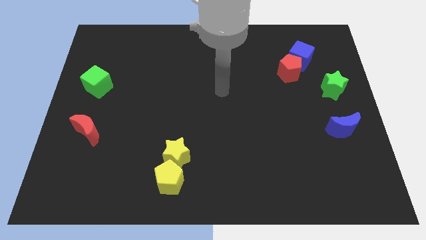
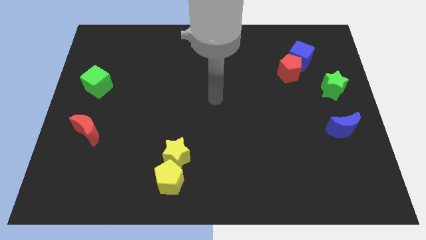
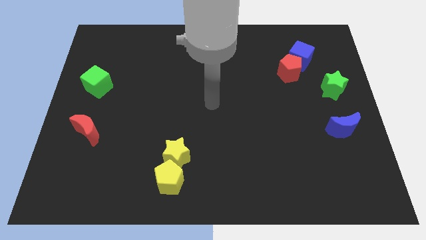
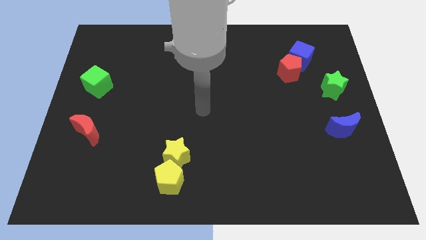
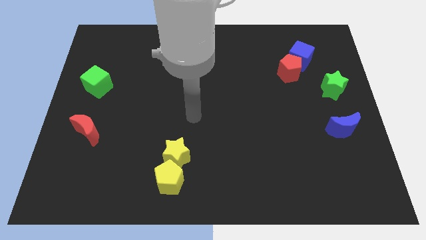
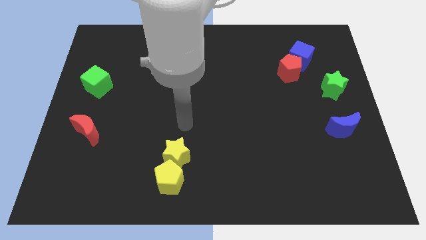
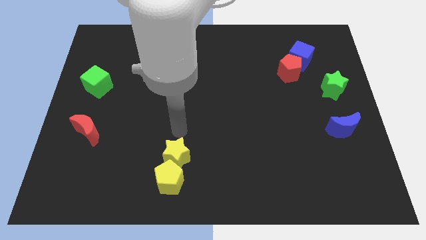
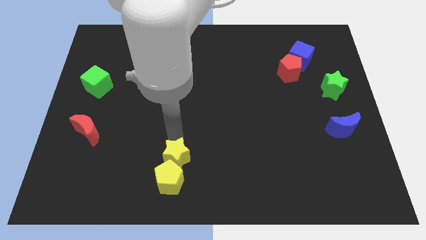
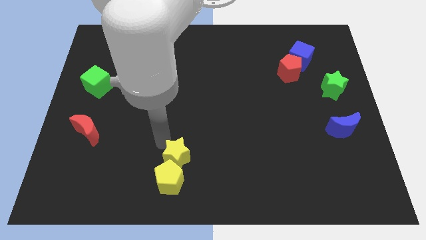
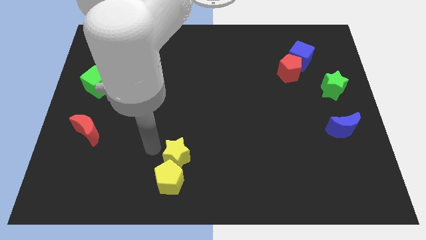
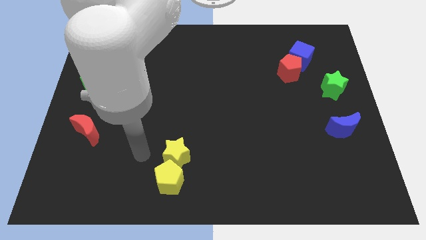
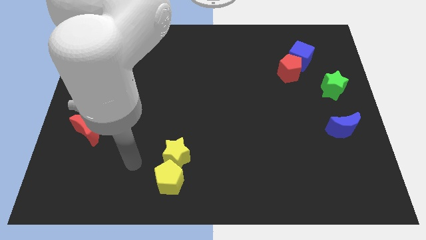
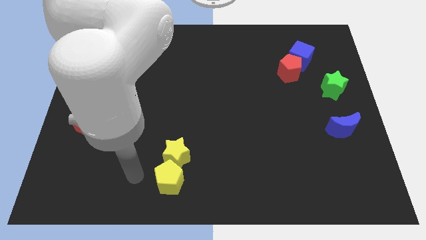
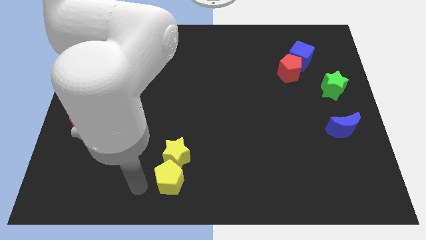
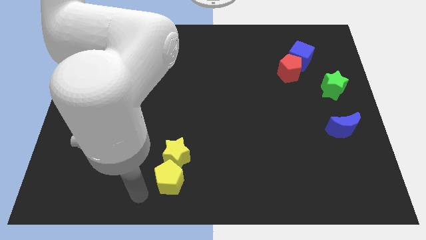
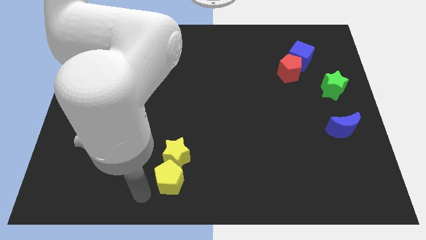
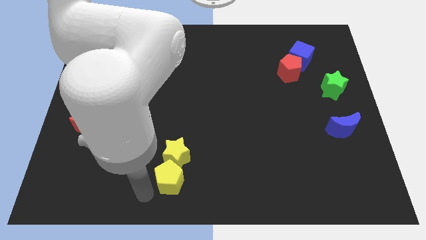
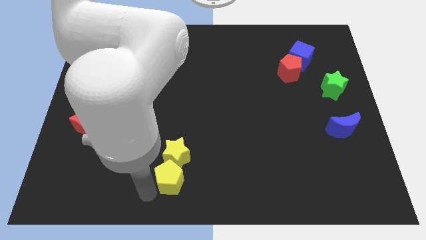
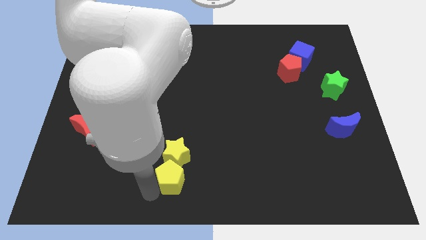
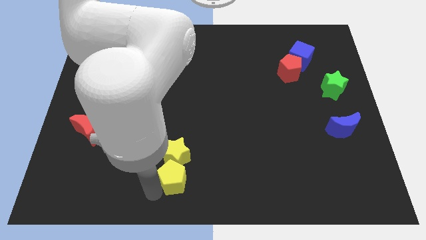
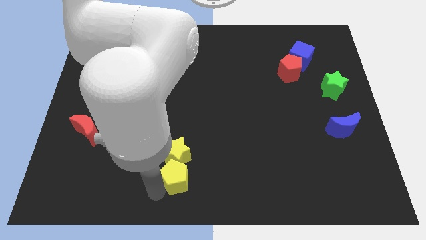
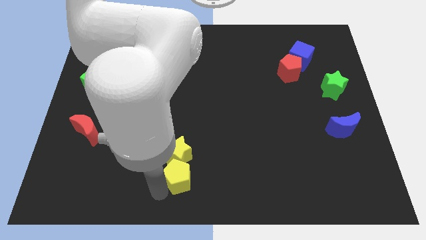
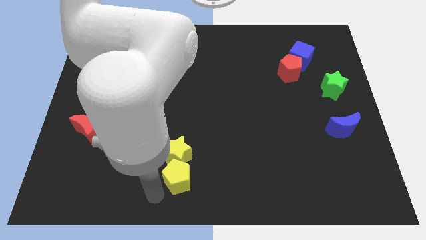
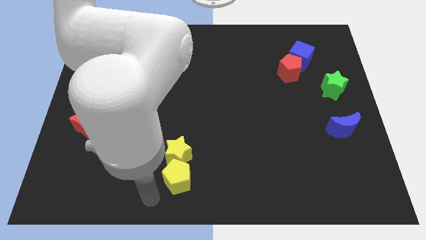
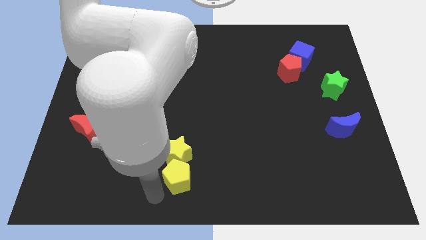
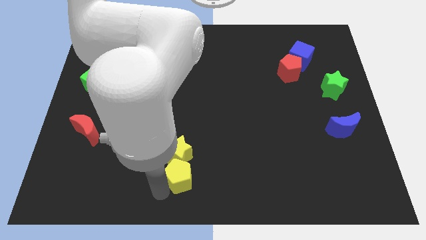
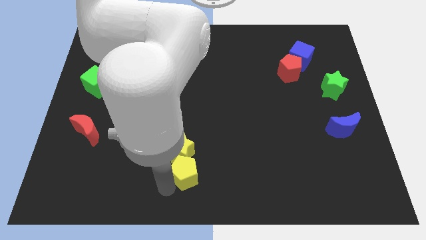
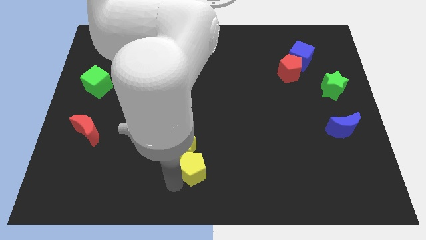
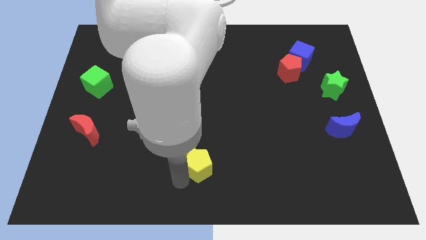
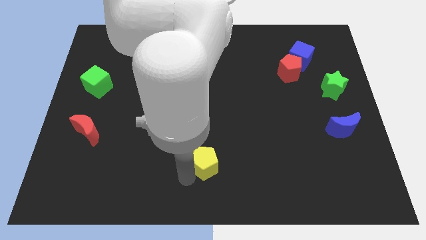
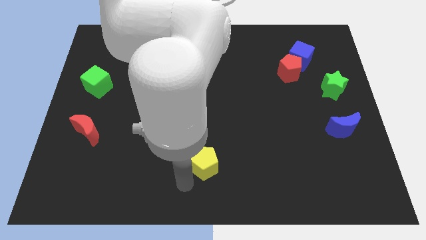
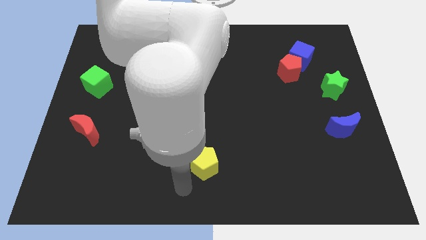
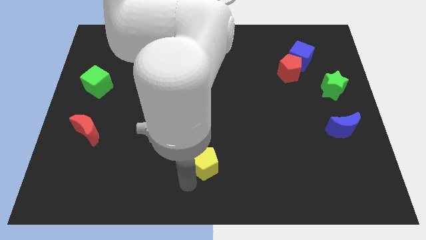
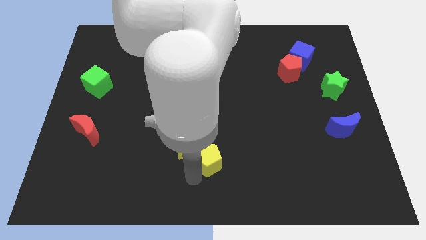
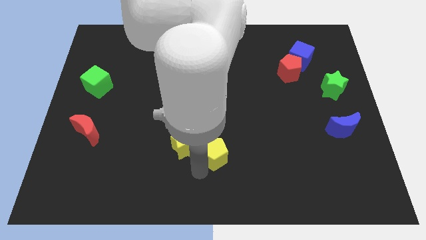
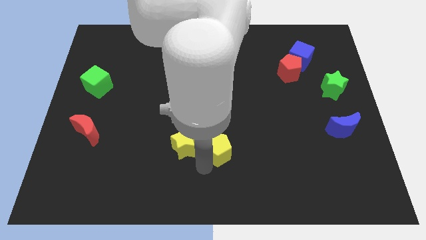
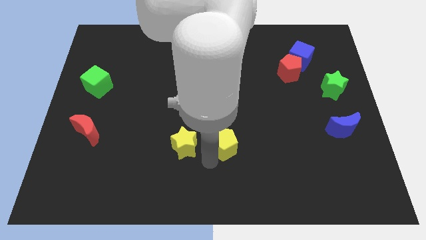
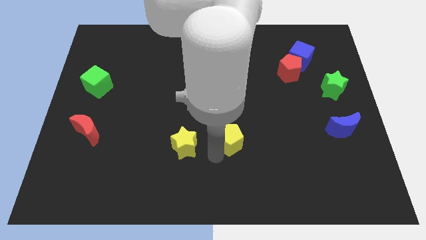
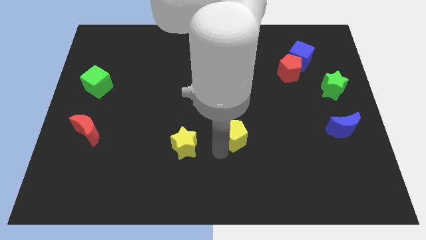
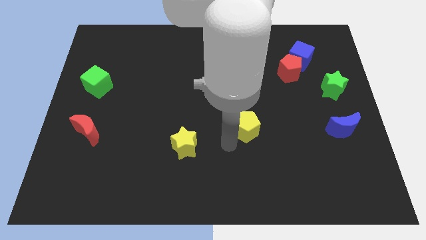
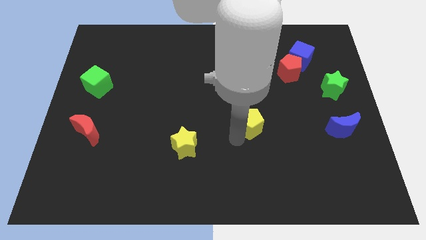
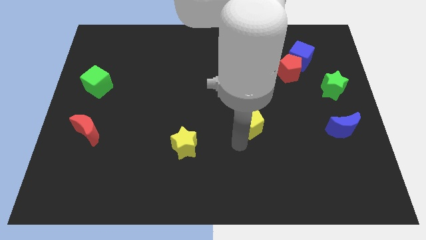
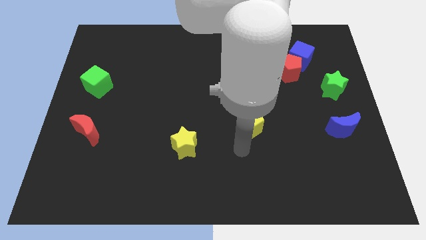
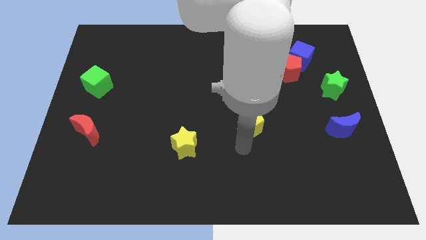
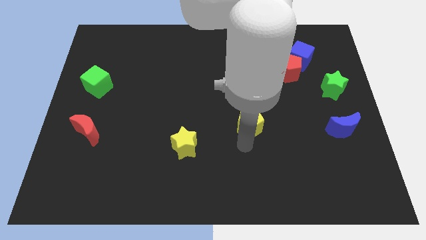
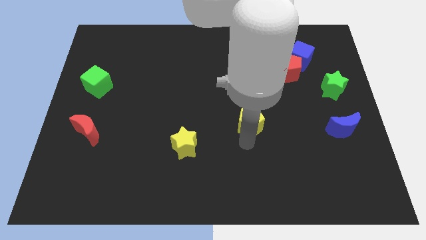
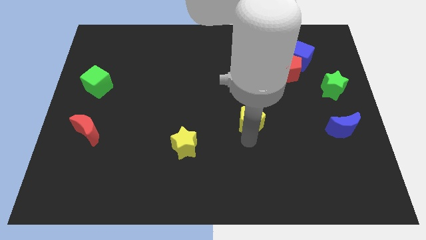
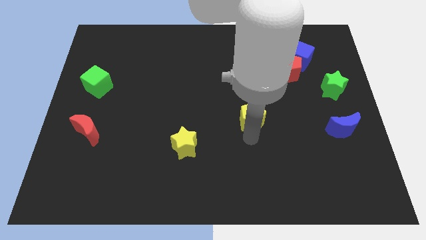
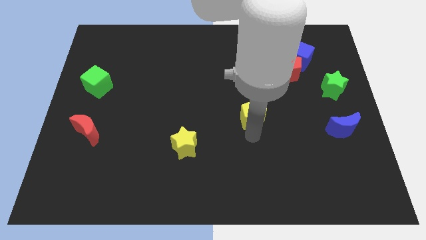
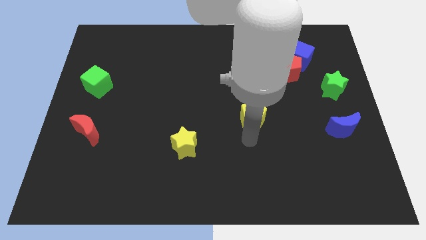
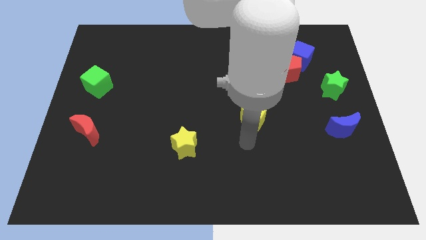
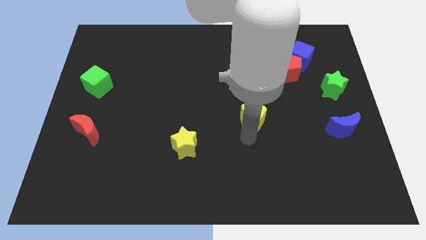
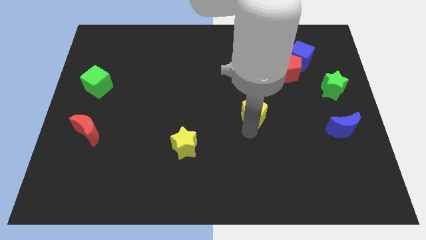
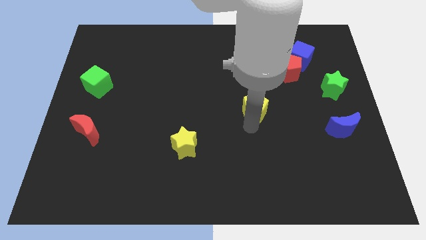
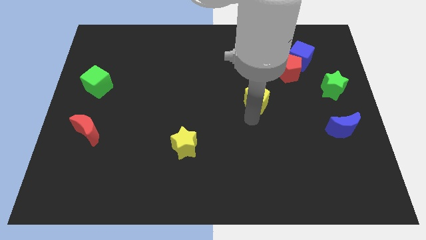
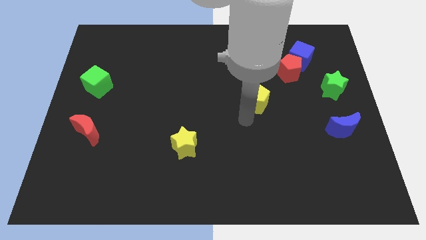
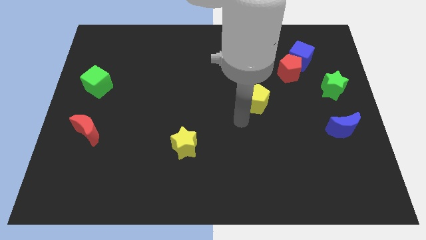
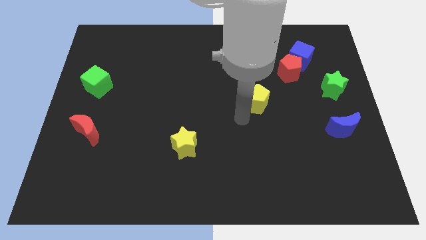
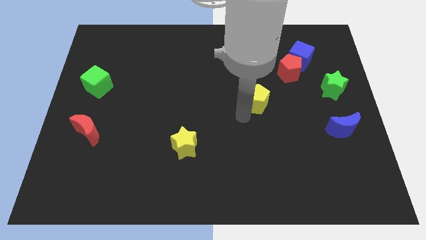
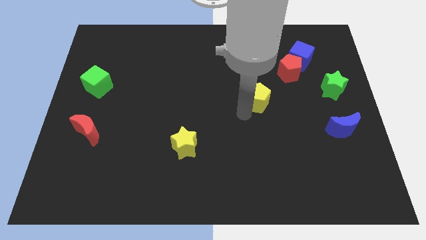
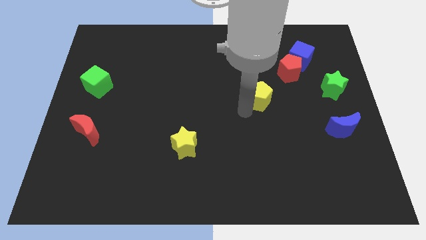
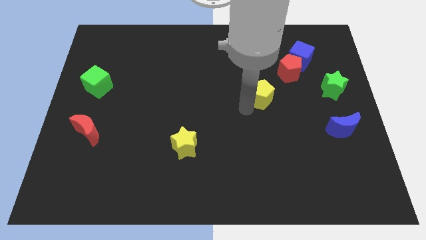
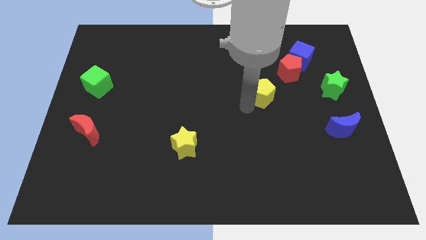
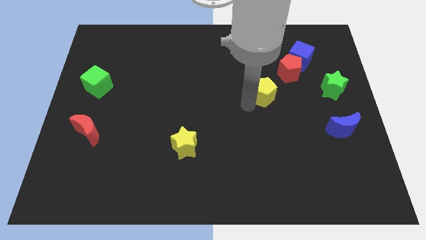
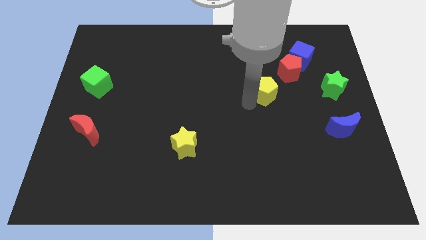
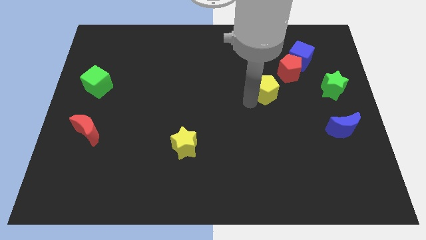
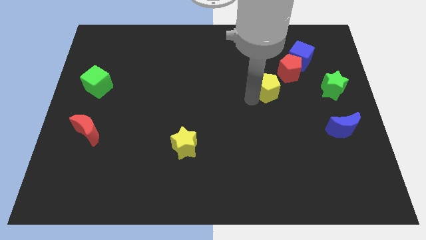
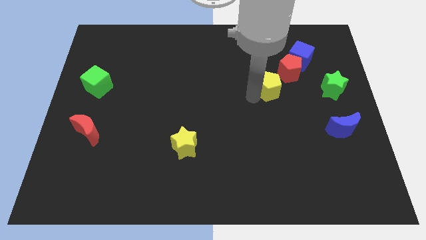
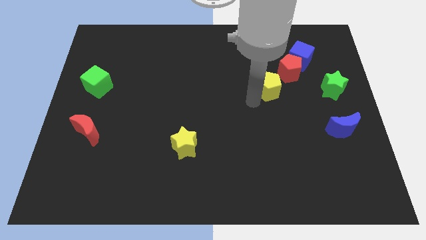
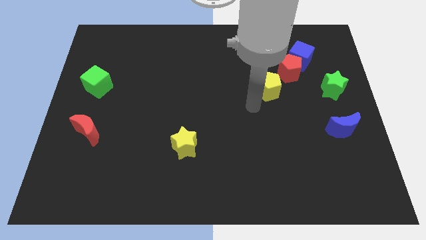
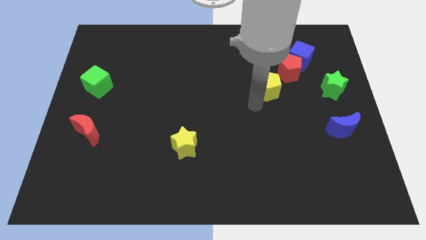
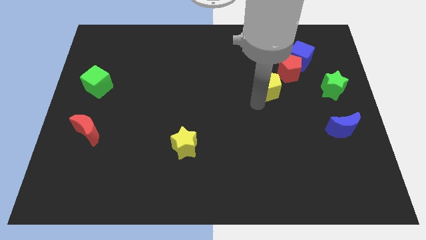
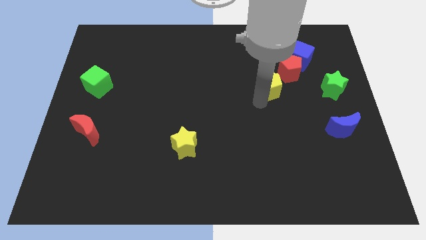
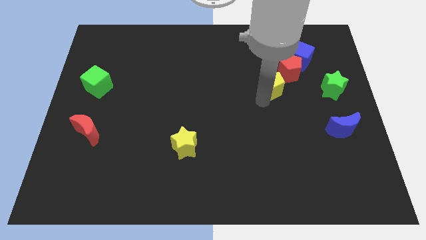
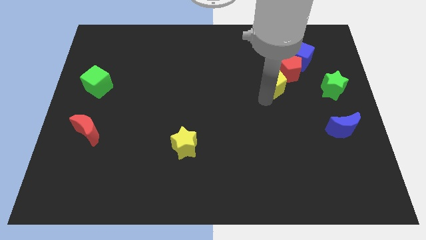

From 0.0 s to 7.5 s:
move the yellow pentagon diagonally down and to the left of the blue cube
